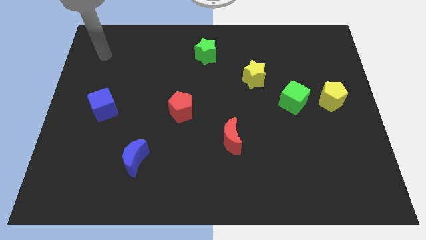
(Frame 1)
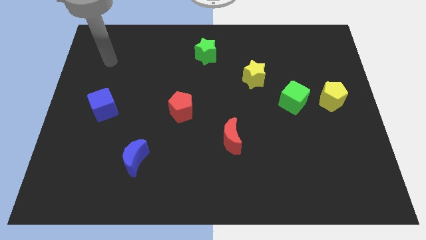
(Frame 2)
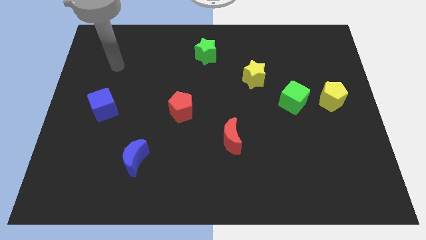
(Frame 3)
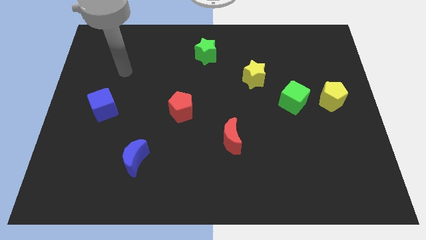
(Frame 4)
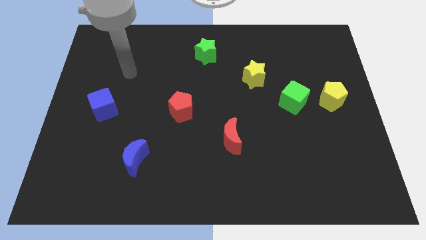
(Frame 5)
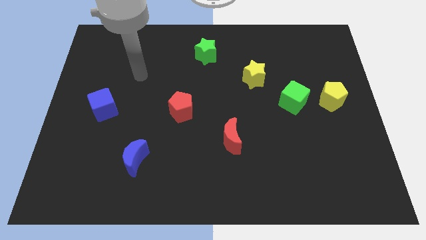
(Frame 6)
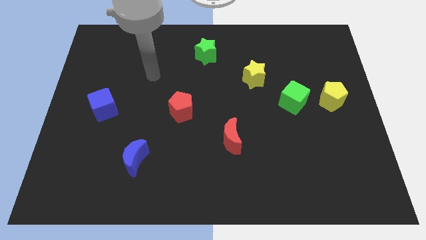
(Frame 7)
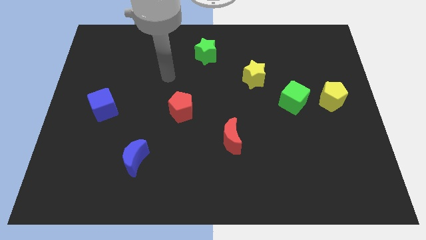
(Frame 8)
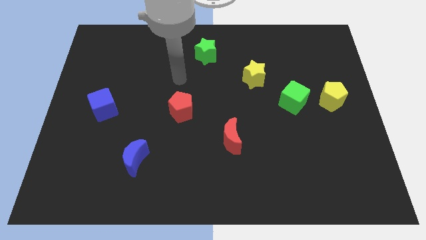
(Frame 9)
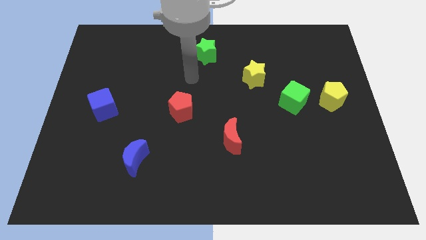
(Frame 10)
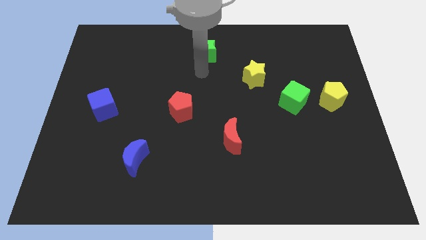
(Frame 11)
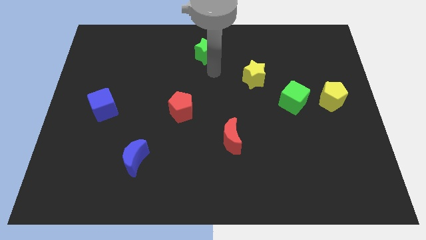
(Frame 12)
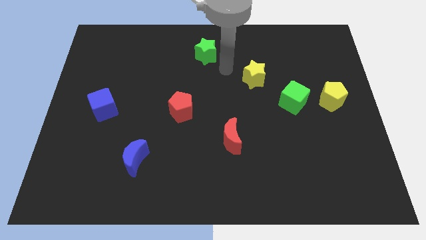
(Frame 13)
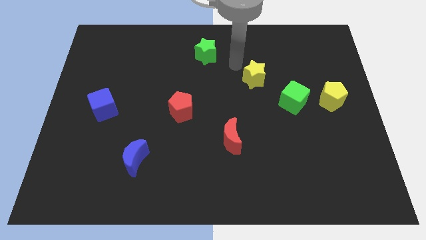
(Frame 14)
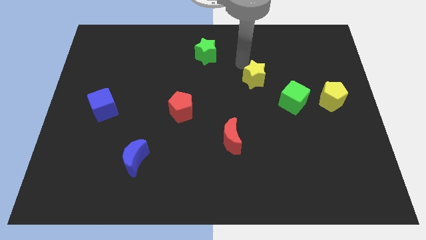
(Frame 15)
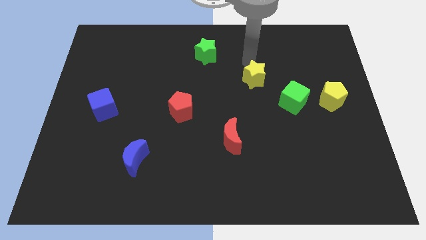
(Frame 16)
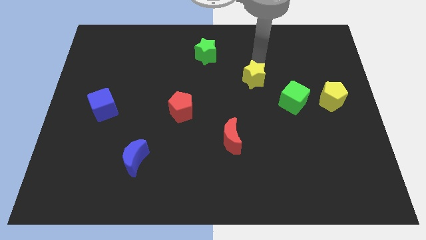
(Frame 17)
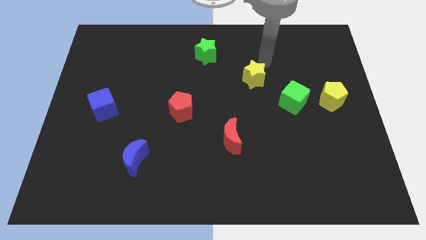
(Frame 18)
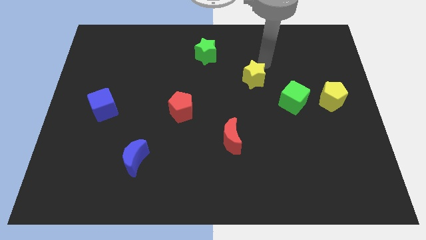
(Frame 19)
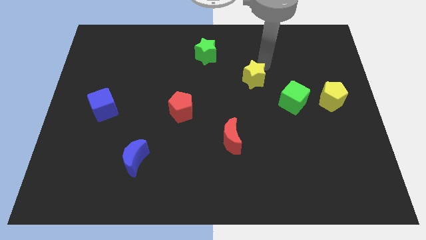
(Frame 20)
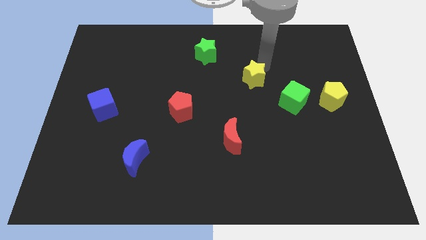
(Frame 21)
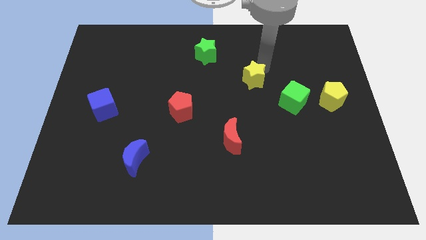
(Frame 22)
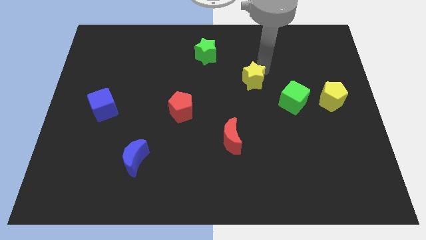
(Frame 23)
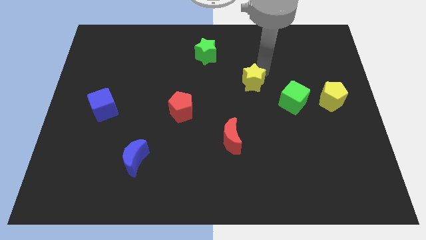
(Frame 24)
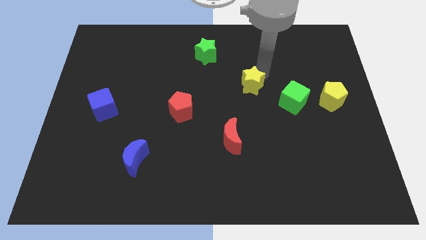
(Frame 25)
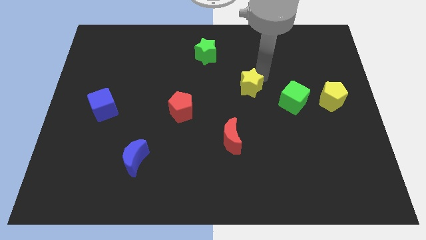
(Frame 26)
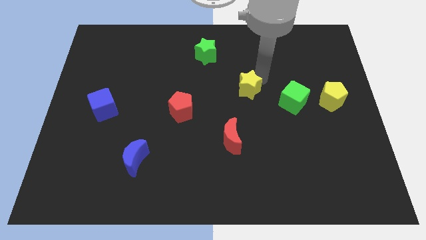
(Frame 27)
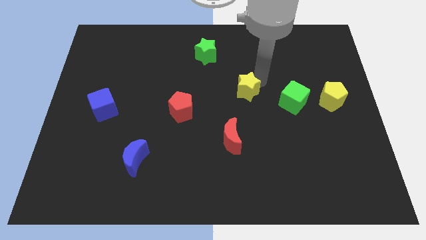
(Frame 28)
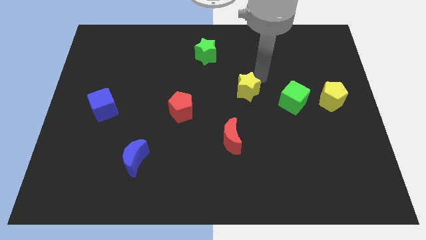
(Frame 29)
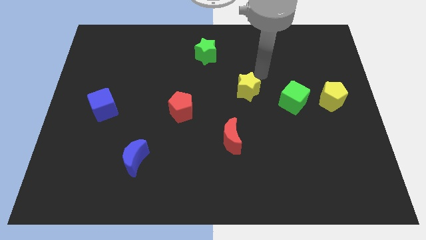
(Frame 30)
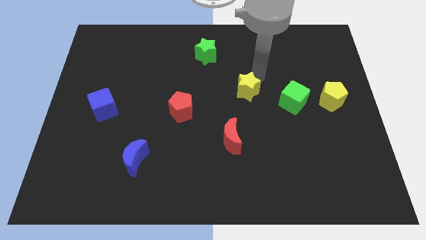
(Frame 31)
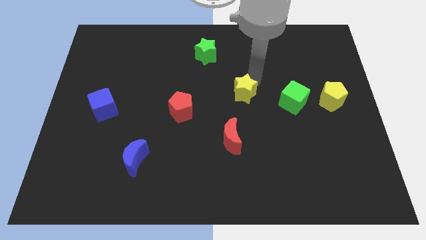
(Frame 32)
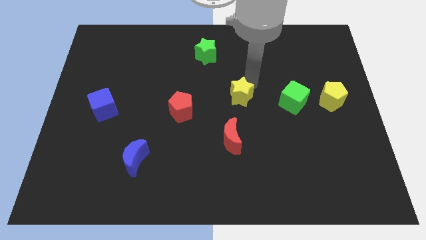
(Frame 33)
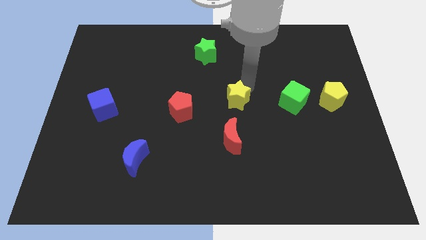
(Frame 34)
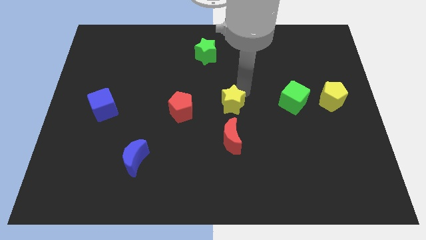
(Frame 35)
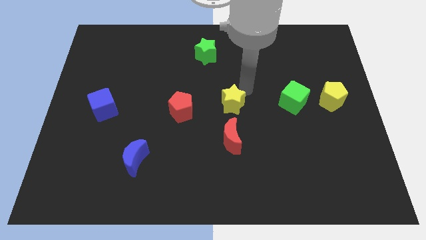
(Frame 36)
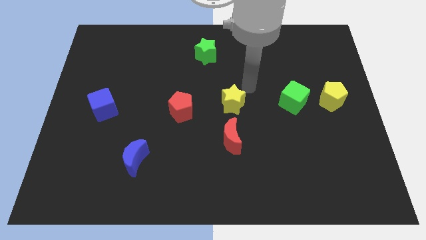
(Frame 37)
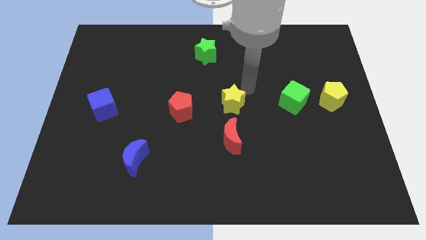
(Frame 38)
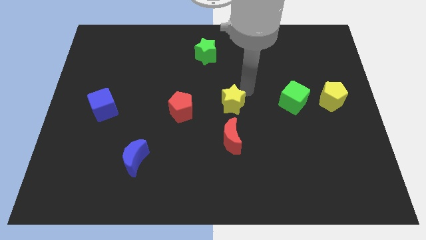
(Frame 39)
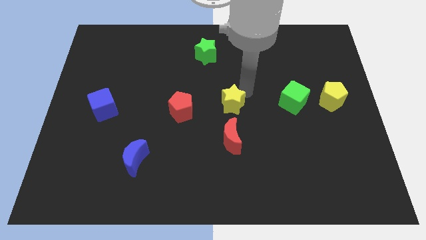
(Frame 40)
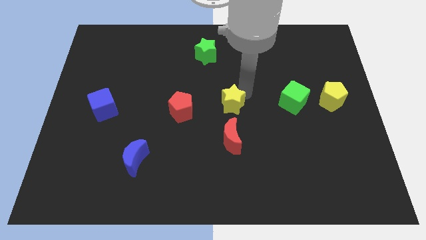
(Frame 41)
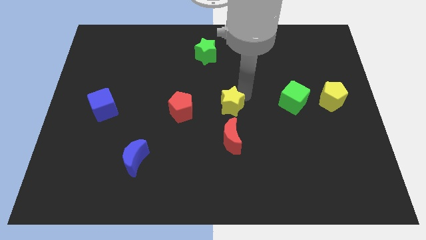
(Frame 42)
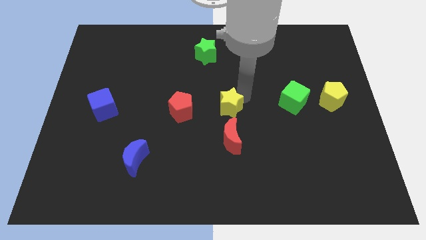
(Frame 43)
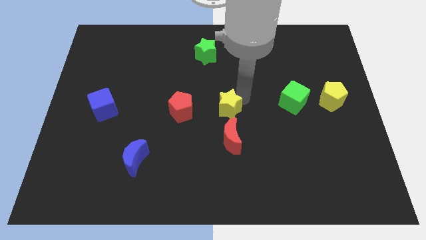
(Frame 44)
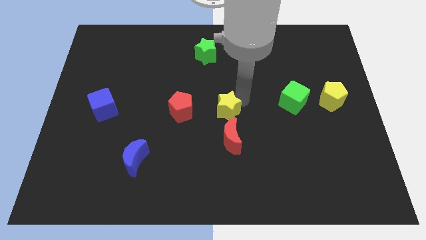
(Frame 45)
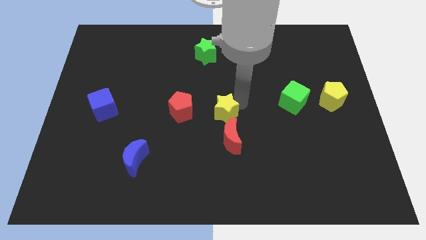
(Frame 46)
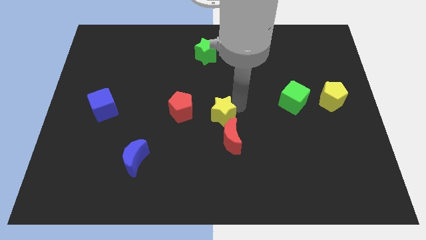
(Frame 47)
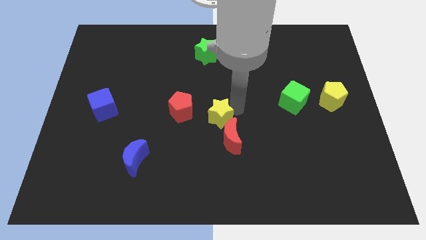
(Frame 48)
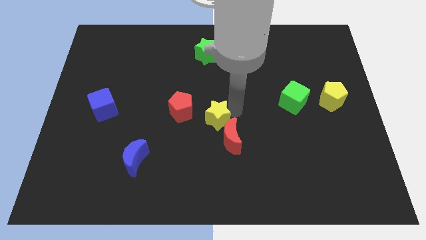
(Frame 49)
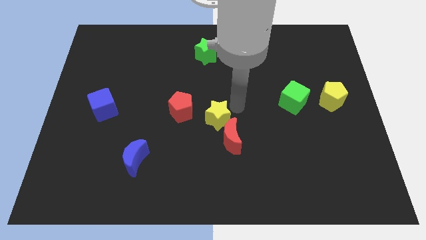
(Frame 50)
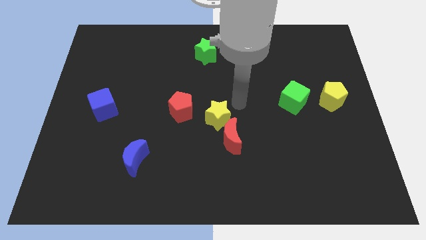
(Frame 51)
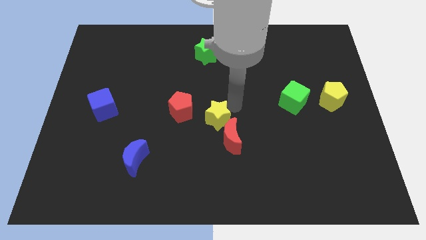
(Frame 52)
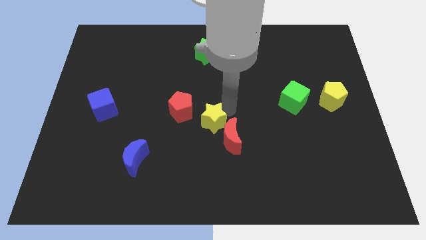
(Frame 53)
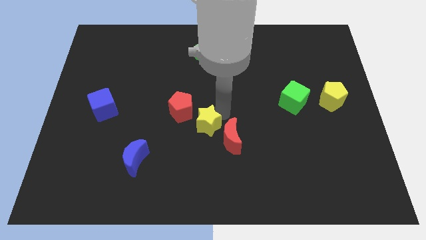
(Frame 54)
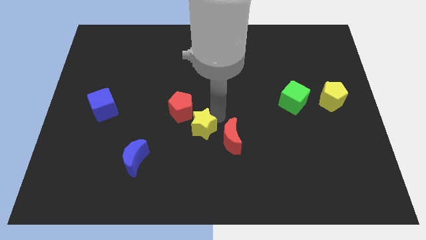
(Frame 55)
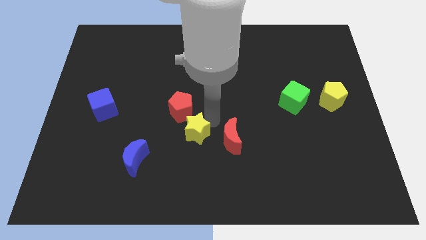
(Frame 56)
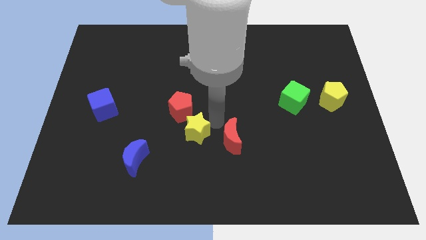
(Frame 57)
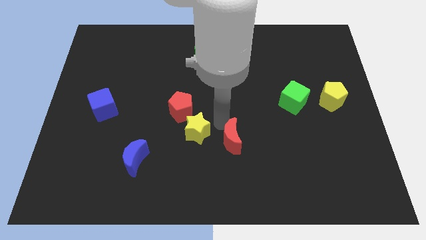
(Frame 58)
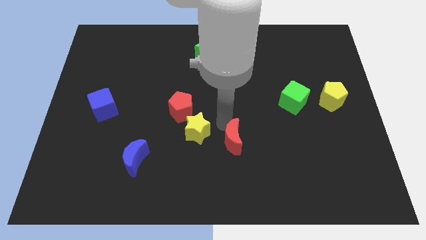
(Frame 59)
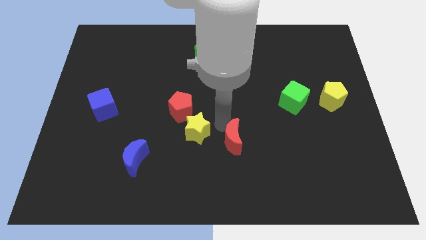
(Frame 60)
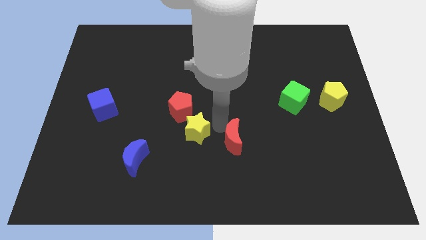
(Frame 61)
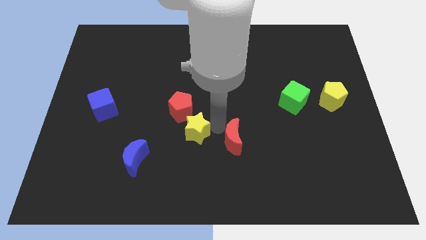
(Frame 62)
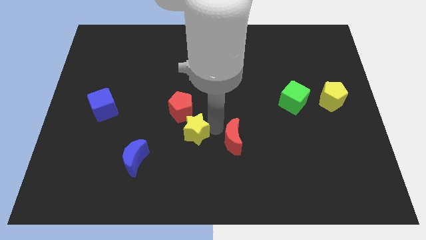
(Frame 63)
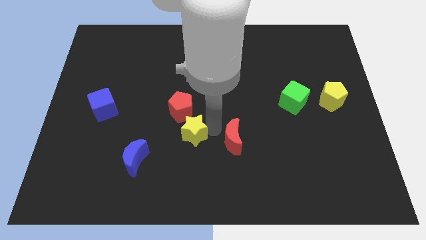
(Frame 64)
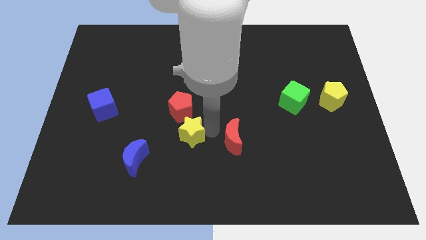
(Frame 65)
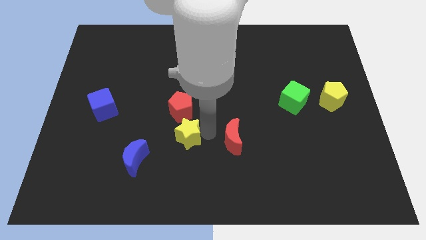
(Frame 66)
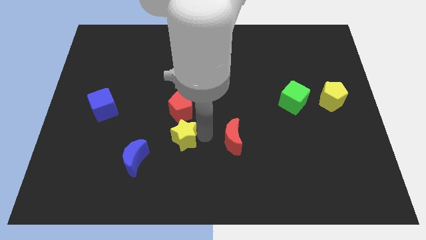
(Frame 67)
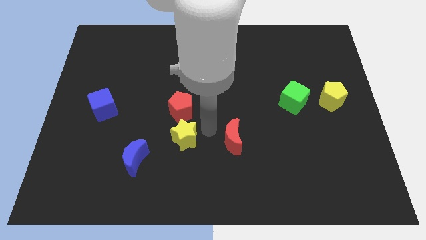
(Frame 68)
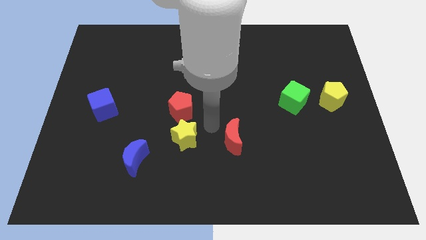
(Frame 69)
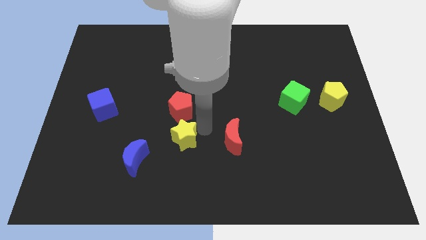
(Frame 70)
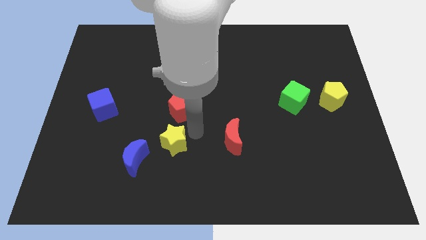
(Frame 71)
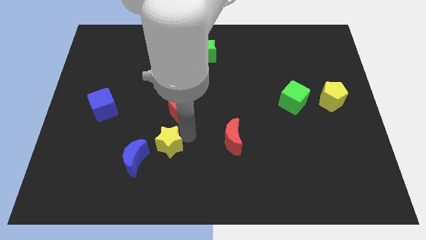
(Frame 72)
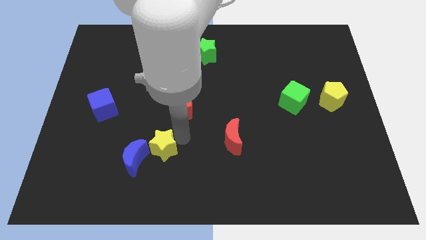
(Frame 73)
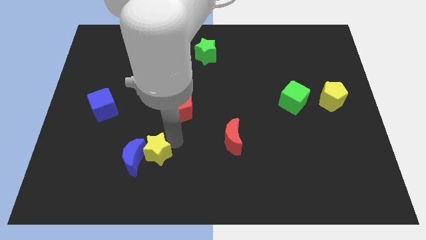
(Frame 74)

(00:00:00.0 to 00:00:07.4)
put the yellow star to the blue moon

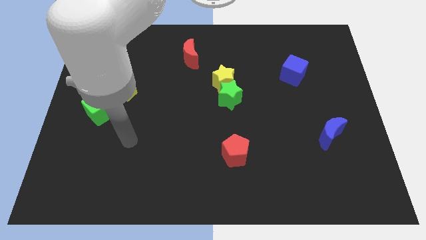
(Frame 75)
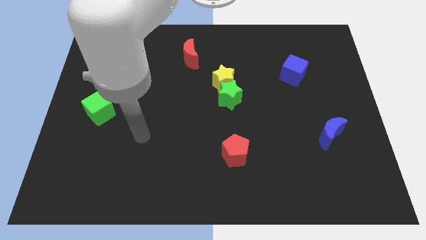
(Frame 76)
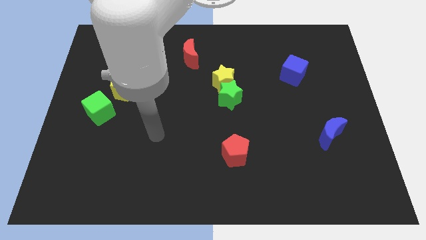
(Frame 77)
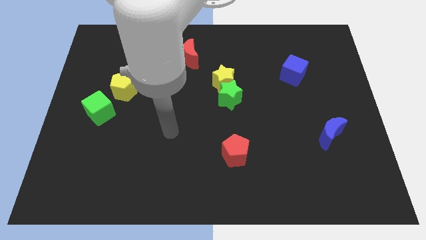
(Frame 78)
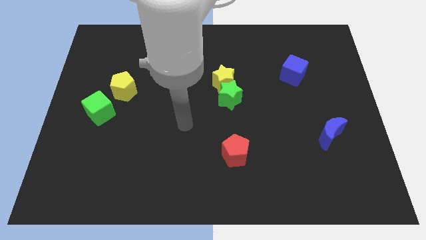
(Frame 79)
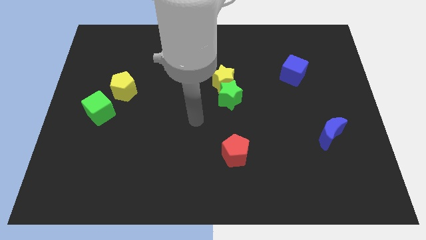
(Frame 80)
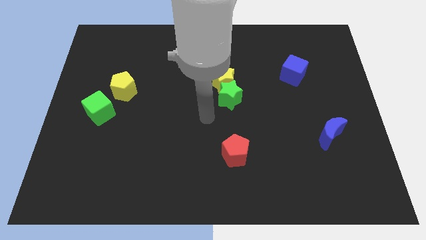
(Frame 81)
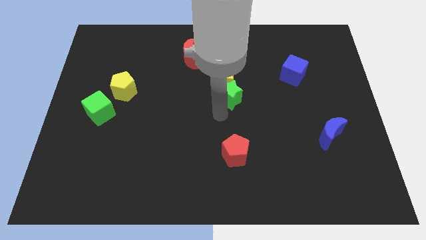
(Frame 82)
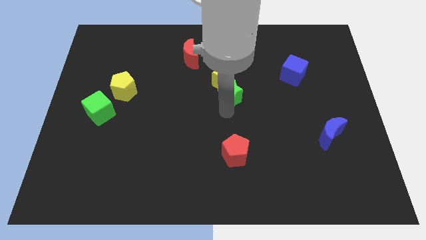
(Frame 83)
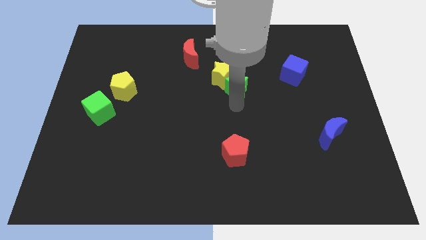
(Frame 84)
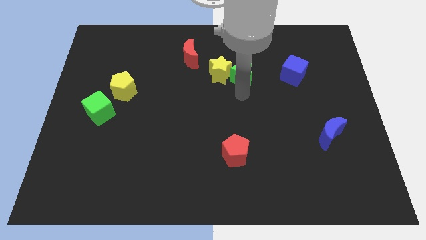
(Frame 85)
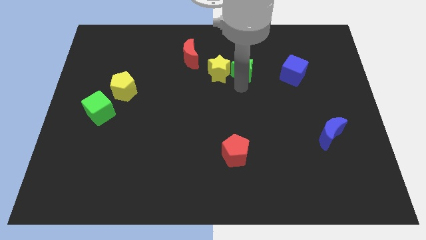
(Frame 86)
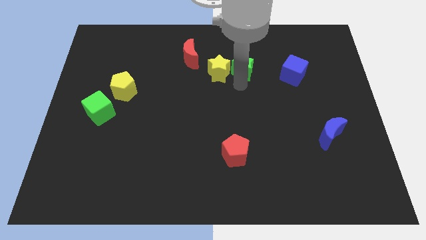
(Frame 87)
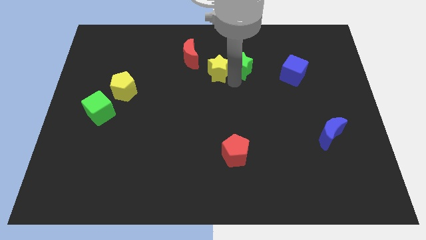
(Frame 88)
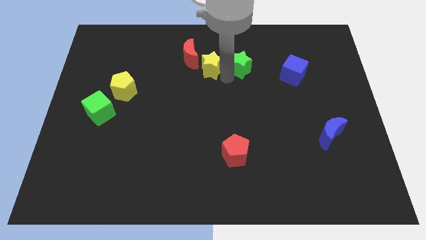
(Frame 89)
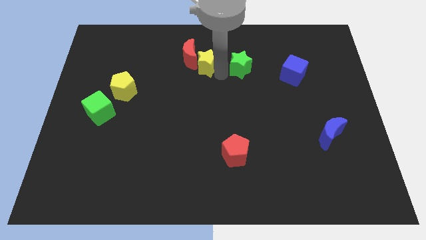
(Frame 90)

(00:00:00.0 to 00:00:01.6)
move the yellow star towards the red moon
